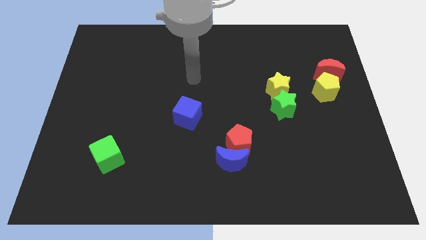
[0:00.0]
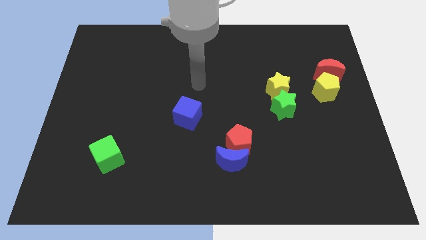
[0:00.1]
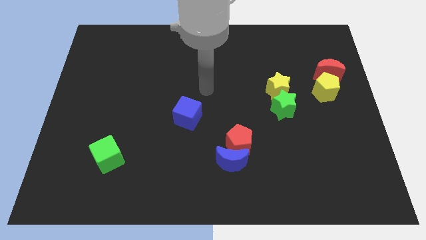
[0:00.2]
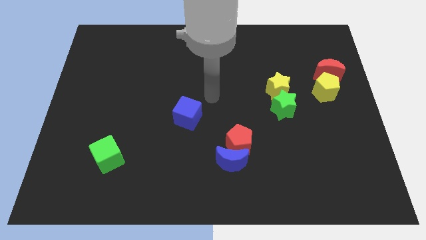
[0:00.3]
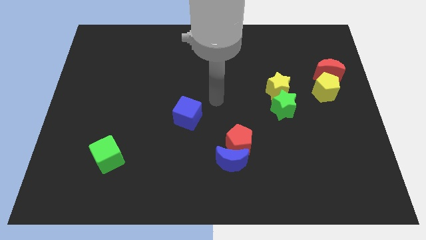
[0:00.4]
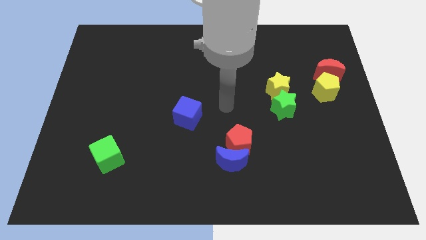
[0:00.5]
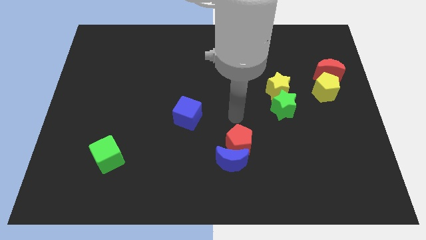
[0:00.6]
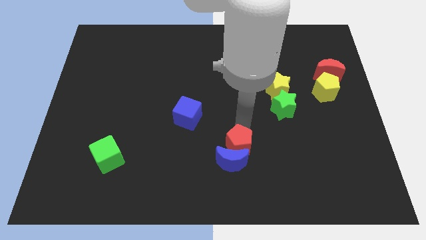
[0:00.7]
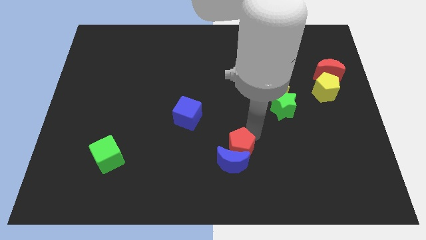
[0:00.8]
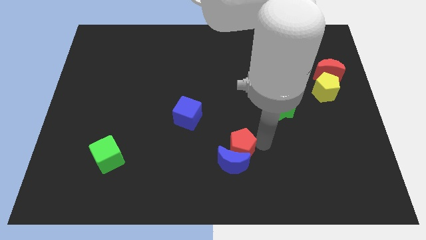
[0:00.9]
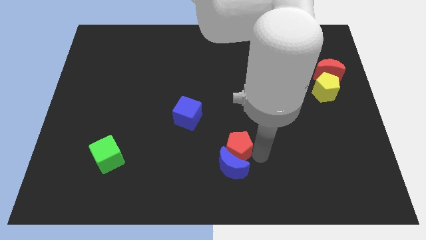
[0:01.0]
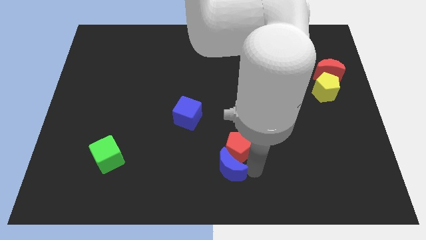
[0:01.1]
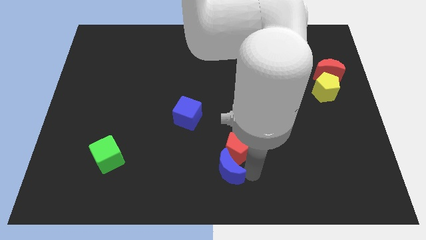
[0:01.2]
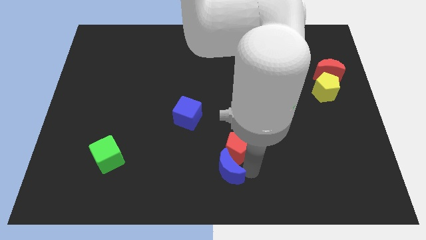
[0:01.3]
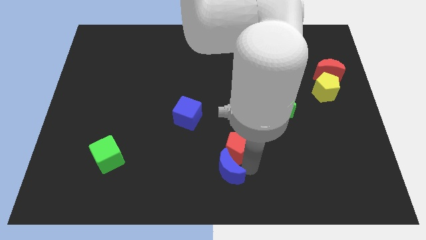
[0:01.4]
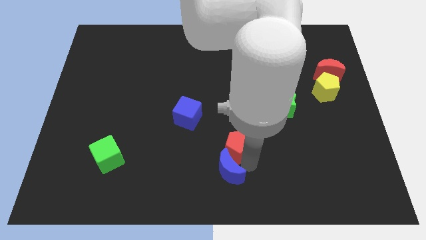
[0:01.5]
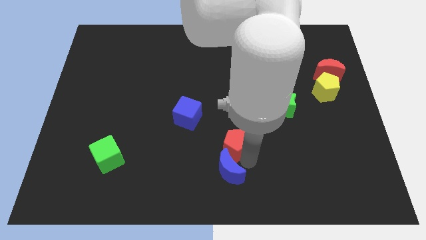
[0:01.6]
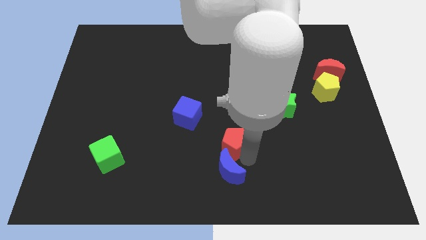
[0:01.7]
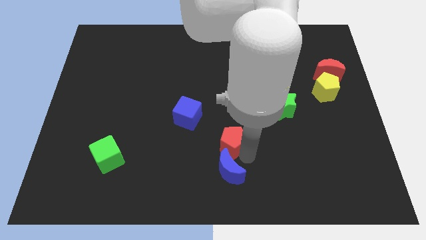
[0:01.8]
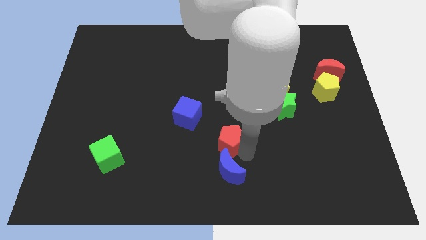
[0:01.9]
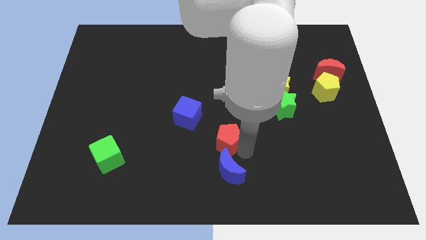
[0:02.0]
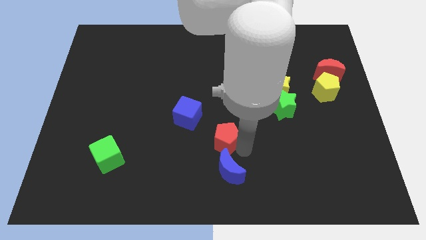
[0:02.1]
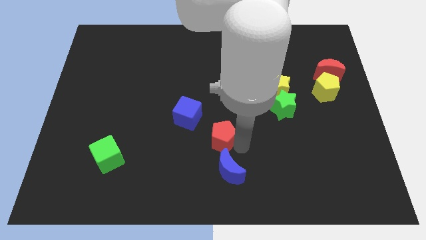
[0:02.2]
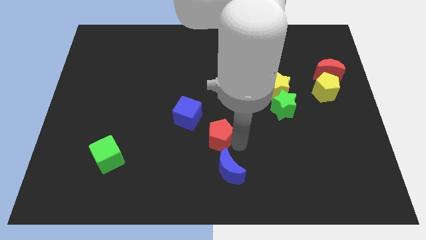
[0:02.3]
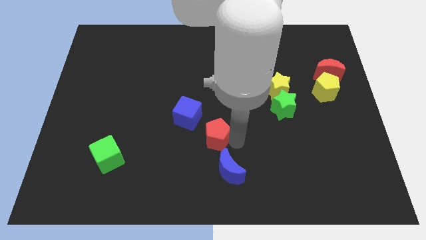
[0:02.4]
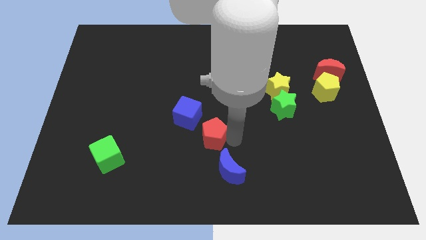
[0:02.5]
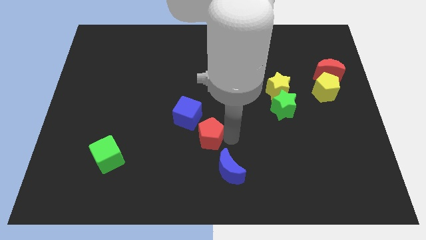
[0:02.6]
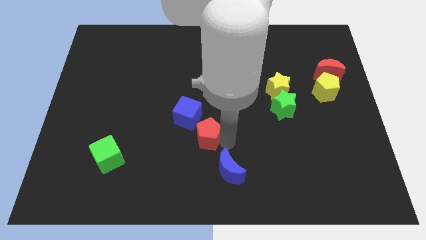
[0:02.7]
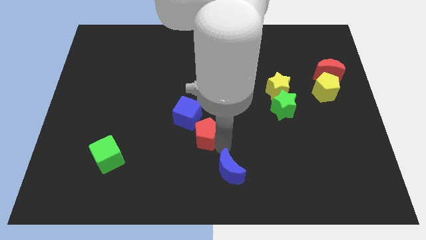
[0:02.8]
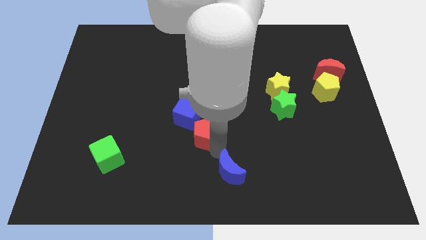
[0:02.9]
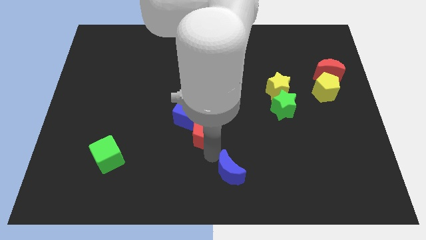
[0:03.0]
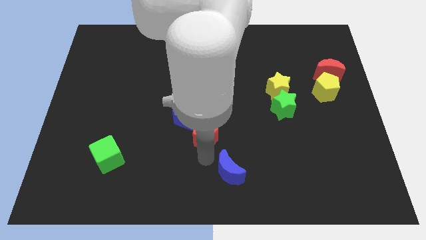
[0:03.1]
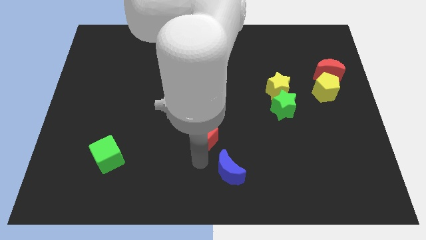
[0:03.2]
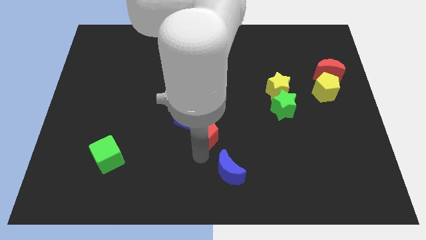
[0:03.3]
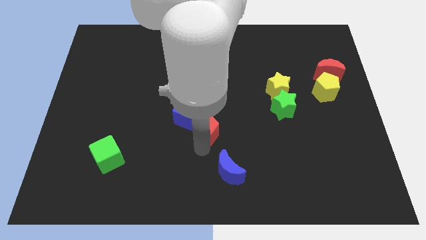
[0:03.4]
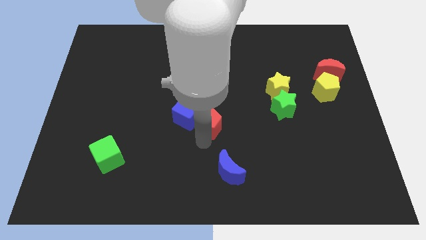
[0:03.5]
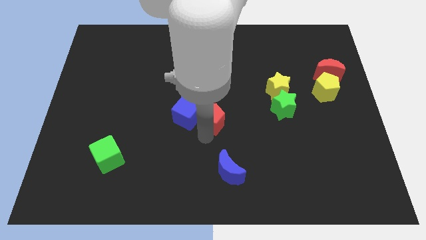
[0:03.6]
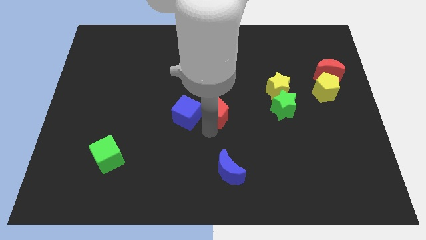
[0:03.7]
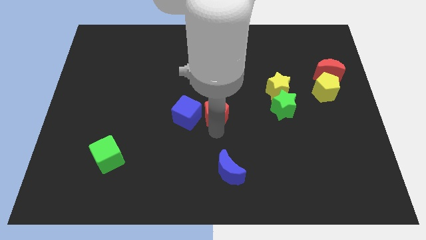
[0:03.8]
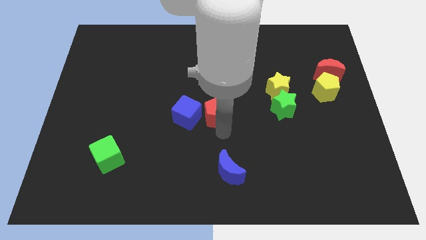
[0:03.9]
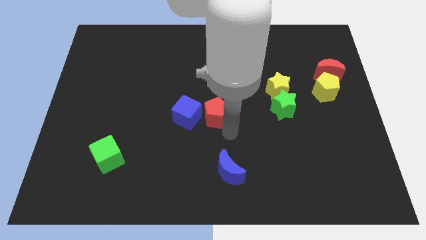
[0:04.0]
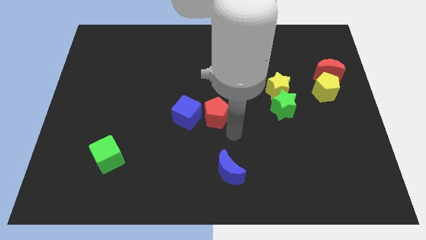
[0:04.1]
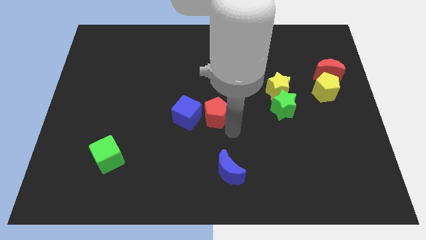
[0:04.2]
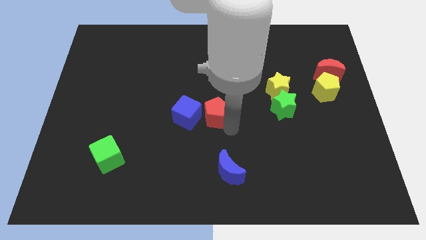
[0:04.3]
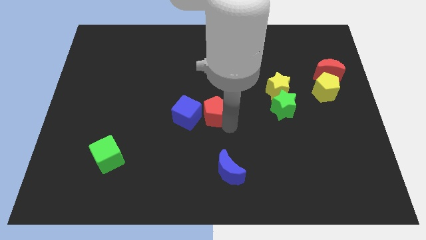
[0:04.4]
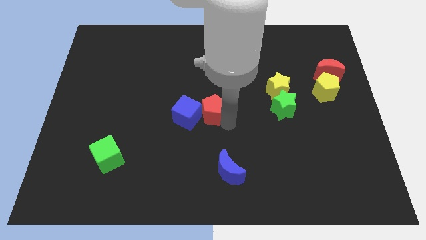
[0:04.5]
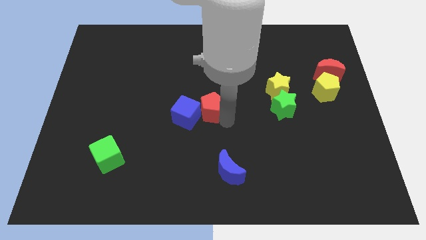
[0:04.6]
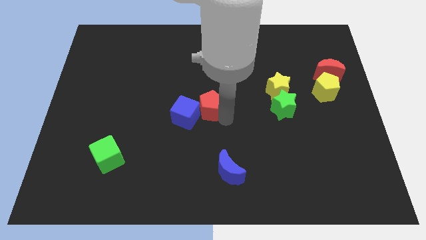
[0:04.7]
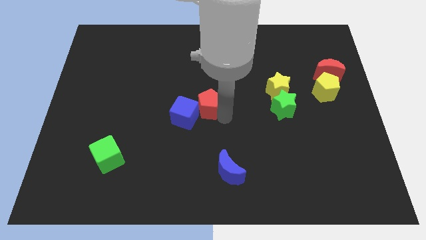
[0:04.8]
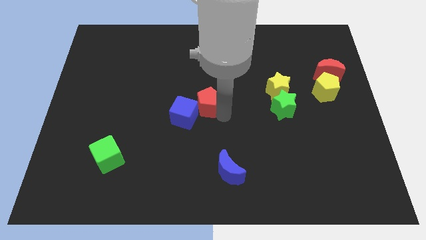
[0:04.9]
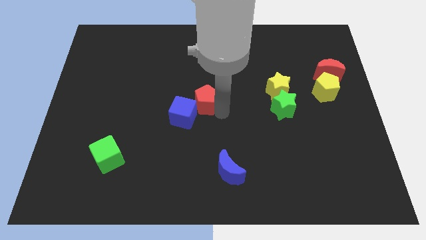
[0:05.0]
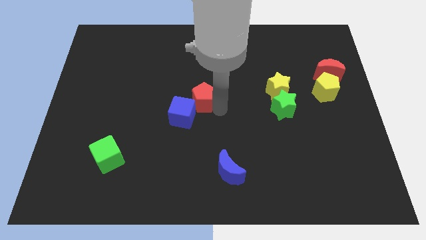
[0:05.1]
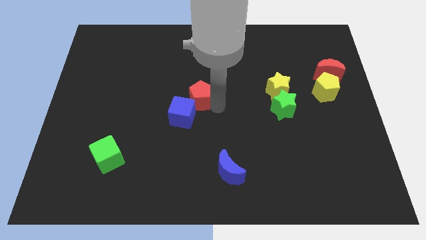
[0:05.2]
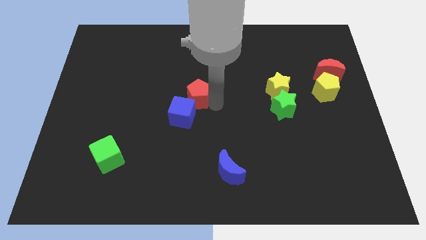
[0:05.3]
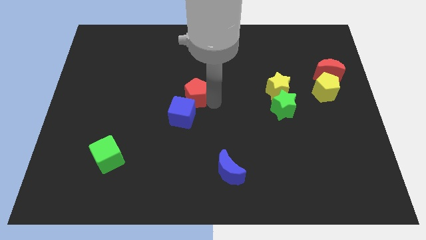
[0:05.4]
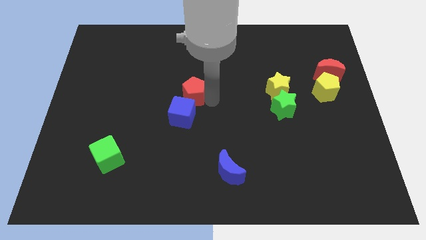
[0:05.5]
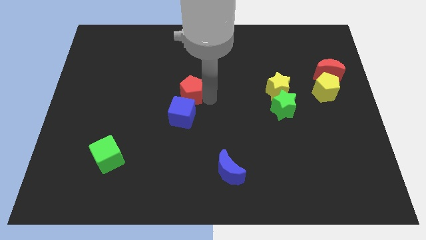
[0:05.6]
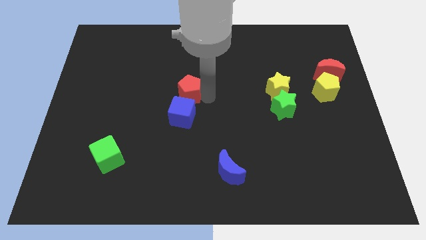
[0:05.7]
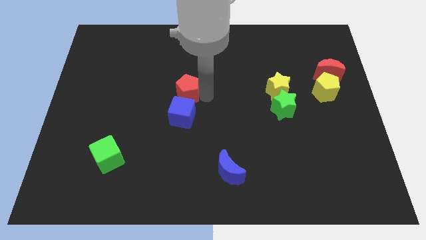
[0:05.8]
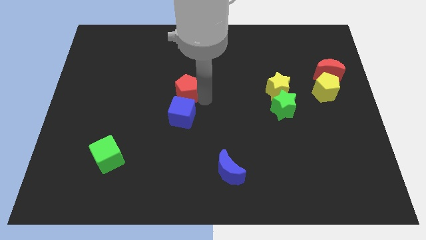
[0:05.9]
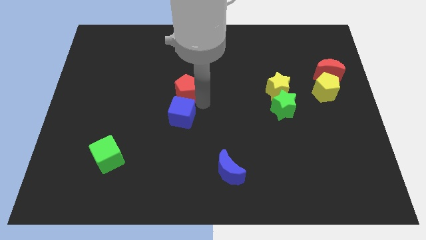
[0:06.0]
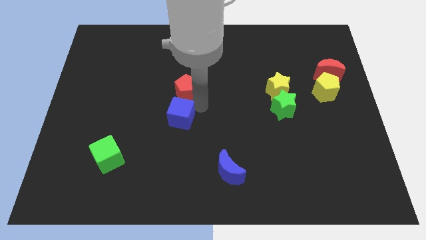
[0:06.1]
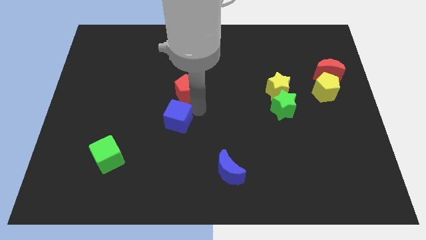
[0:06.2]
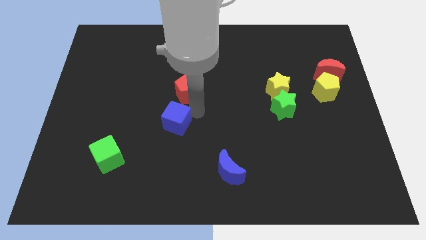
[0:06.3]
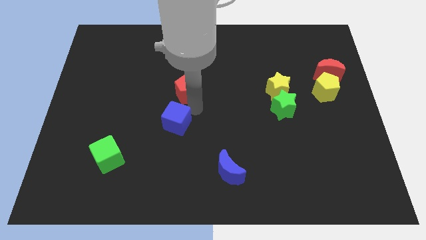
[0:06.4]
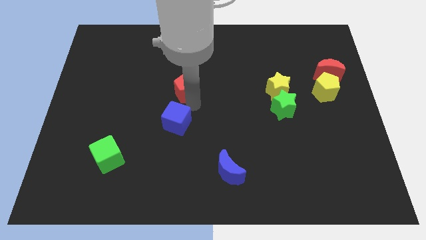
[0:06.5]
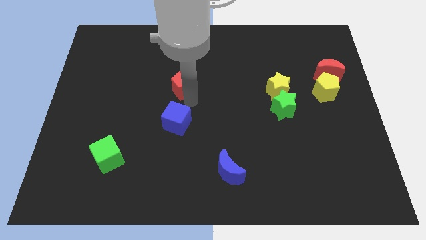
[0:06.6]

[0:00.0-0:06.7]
slide the red pentagon diagonally up and to the left

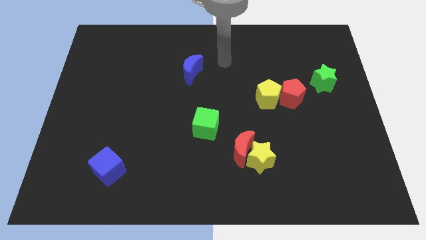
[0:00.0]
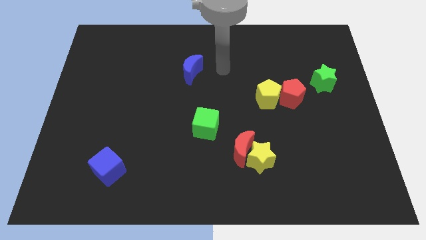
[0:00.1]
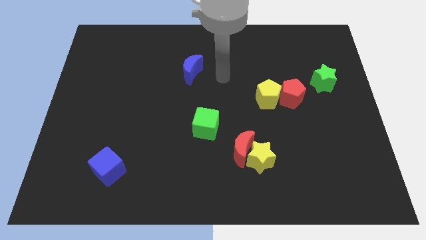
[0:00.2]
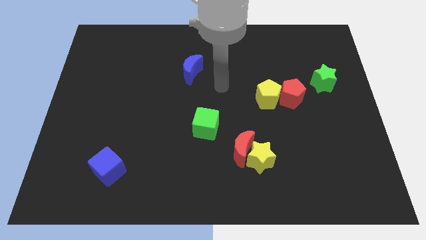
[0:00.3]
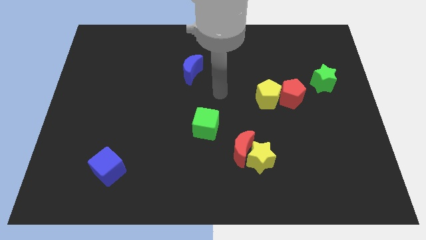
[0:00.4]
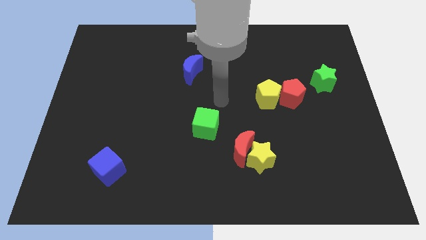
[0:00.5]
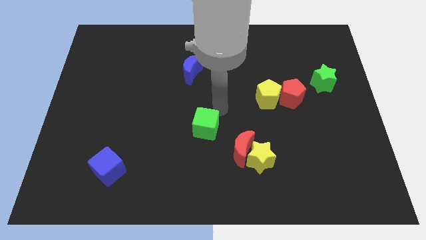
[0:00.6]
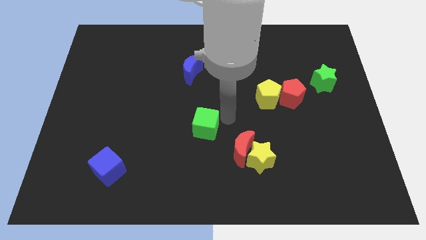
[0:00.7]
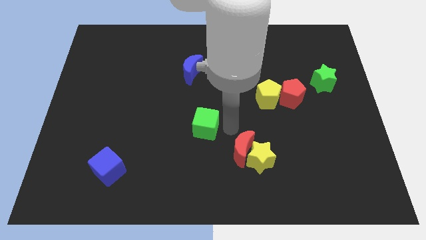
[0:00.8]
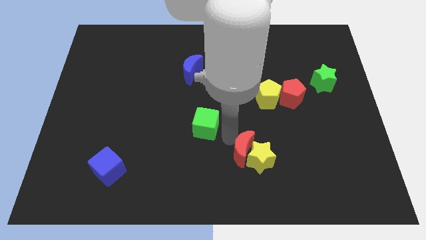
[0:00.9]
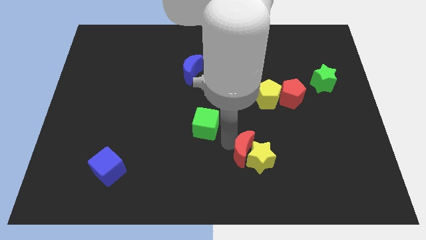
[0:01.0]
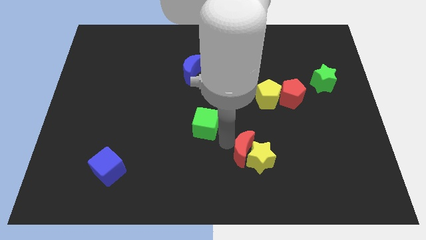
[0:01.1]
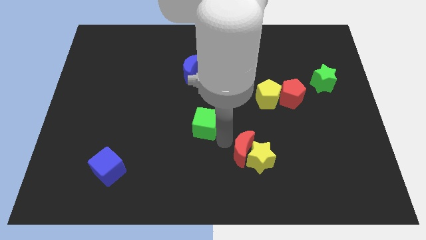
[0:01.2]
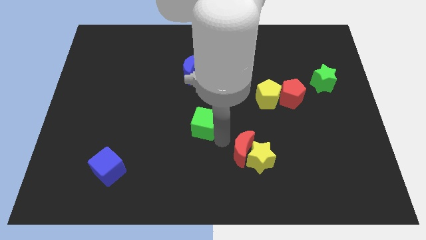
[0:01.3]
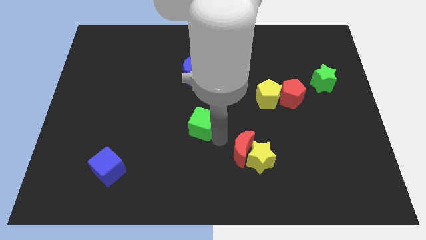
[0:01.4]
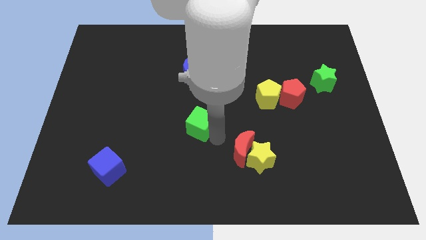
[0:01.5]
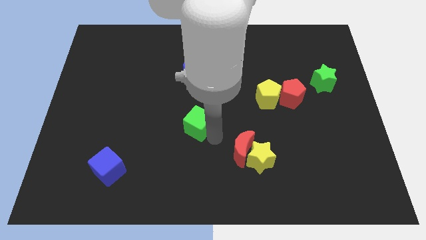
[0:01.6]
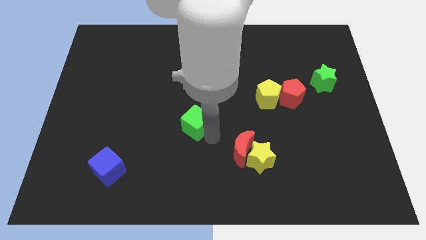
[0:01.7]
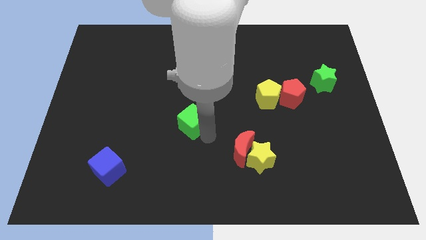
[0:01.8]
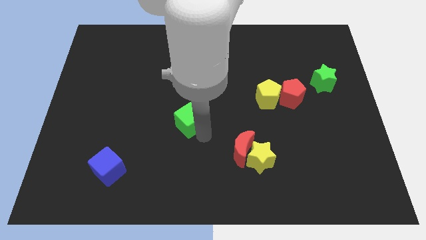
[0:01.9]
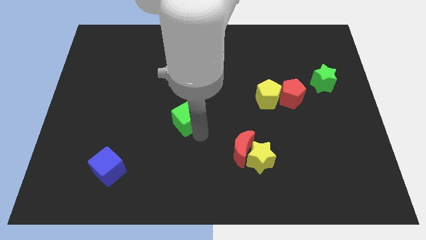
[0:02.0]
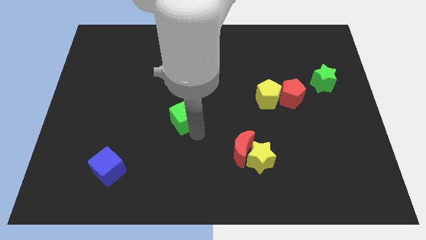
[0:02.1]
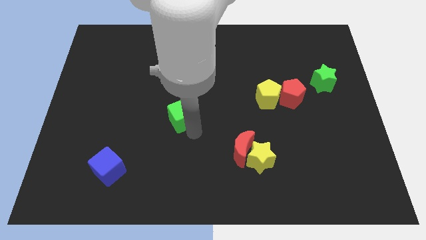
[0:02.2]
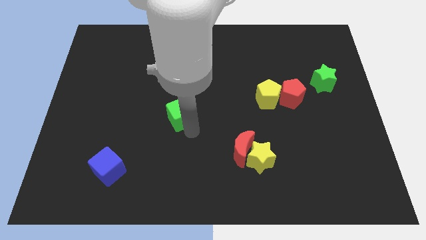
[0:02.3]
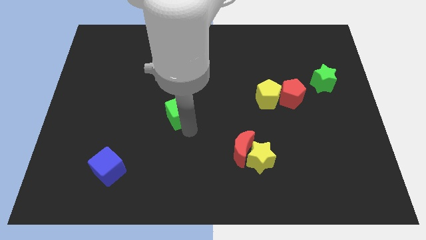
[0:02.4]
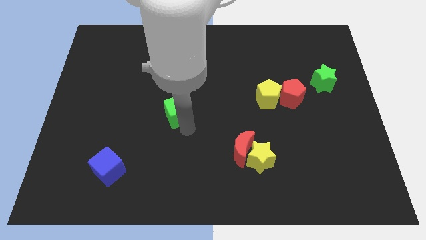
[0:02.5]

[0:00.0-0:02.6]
slightly slide the green cube up and left
